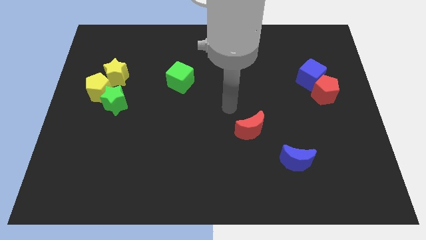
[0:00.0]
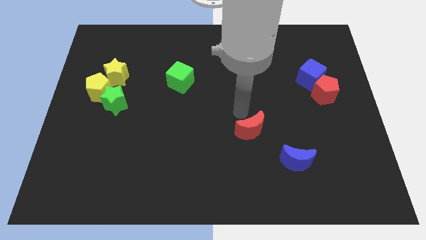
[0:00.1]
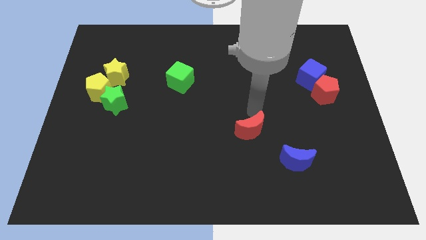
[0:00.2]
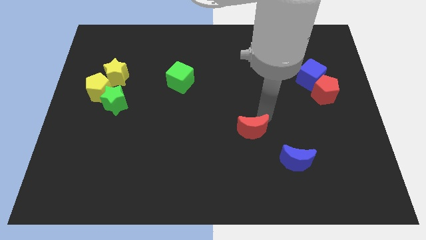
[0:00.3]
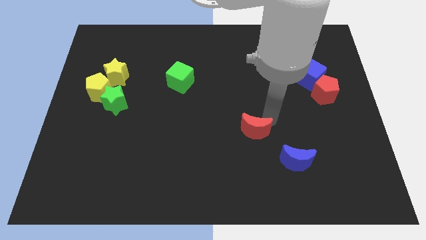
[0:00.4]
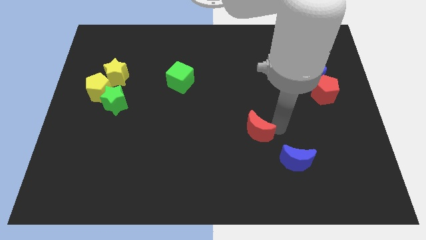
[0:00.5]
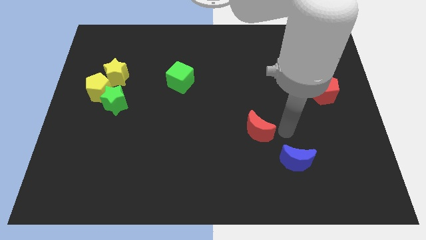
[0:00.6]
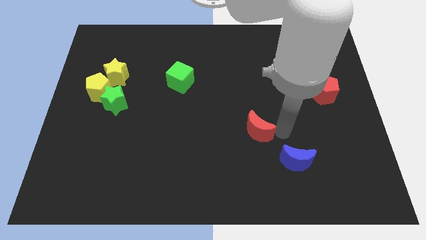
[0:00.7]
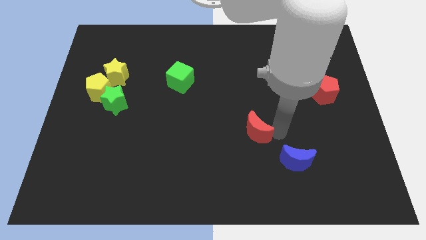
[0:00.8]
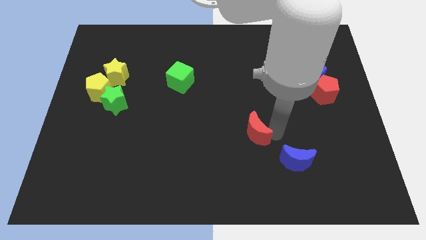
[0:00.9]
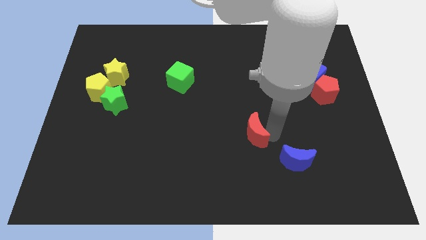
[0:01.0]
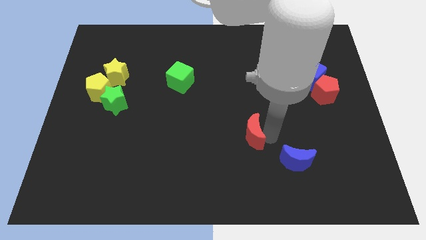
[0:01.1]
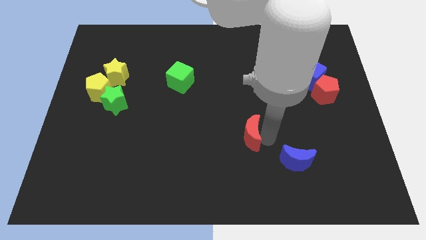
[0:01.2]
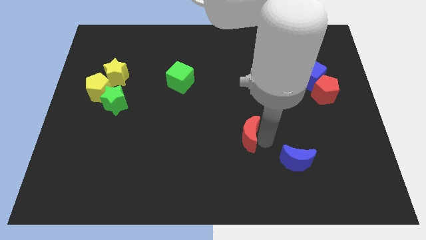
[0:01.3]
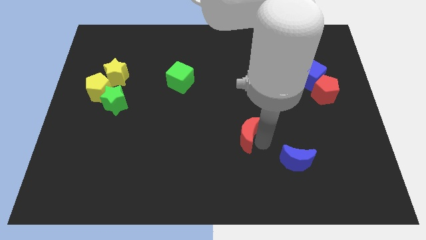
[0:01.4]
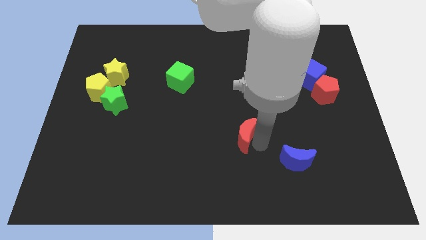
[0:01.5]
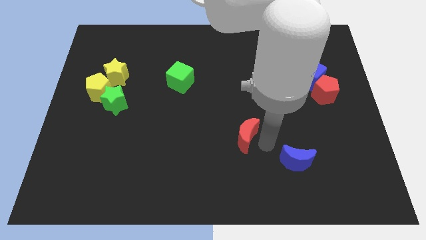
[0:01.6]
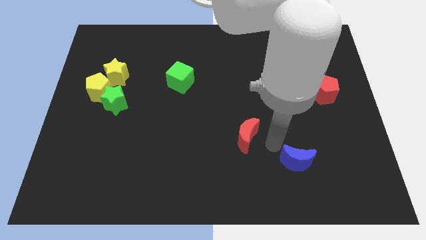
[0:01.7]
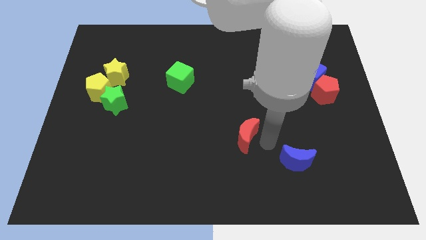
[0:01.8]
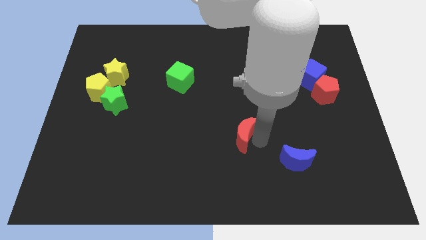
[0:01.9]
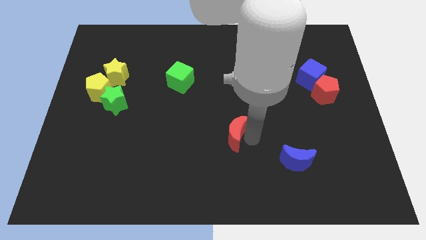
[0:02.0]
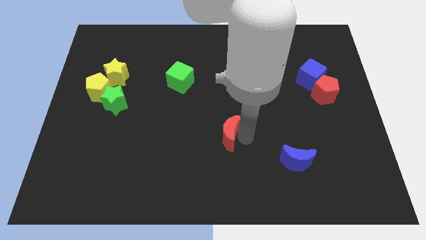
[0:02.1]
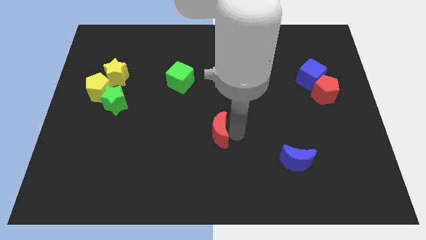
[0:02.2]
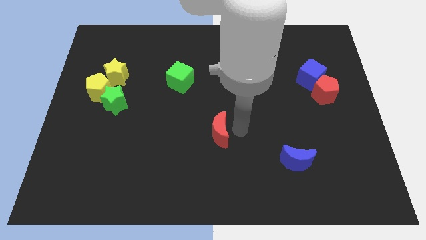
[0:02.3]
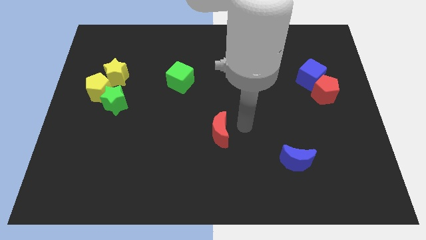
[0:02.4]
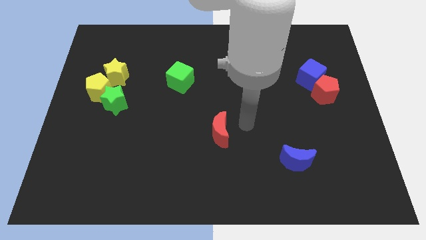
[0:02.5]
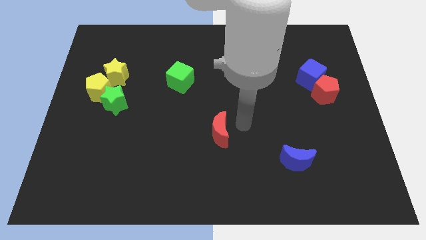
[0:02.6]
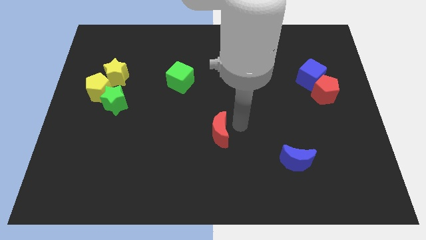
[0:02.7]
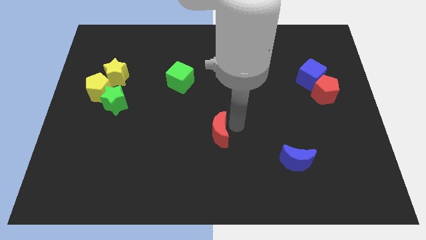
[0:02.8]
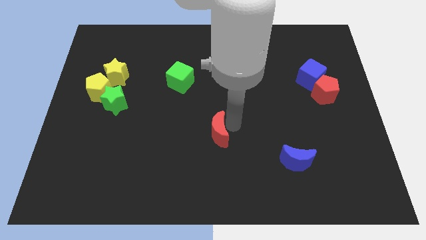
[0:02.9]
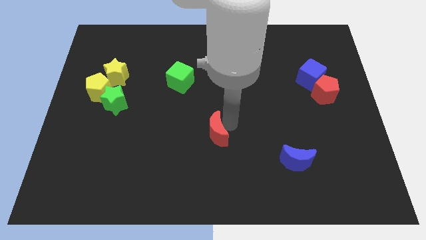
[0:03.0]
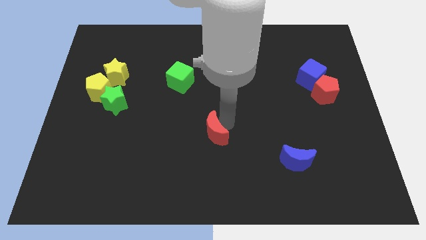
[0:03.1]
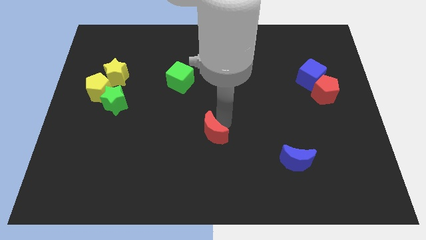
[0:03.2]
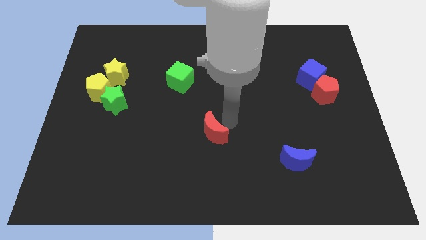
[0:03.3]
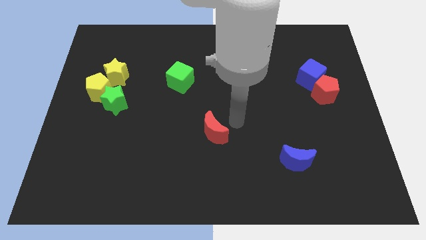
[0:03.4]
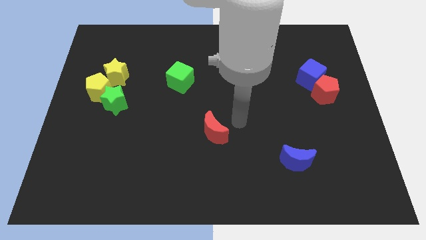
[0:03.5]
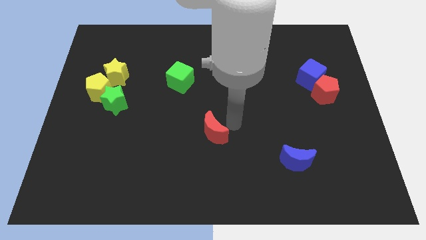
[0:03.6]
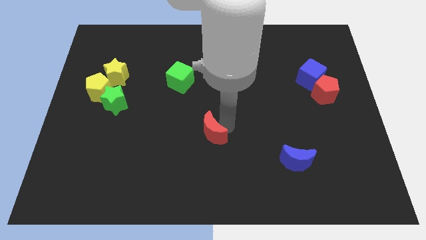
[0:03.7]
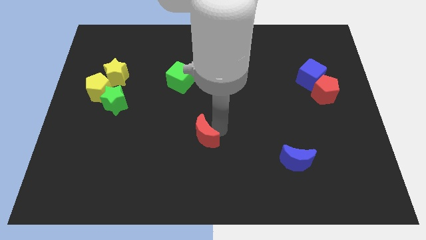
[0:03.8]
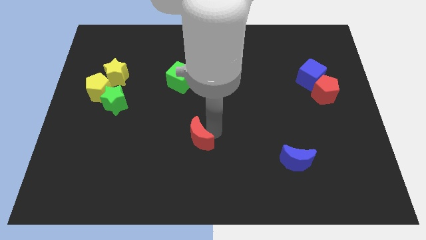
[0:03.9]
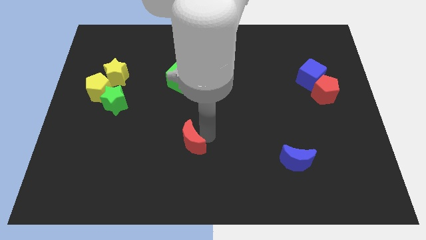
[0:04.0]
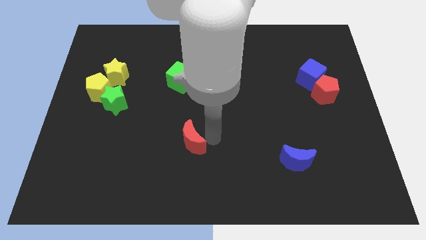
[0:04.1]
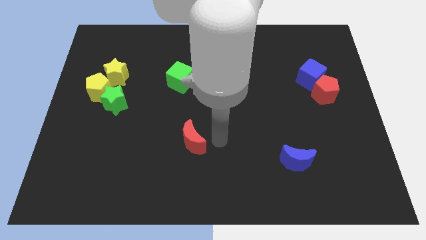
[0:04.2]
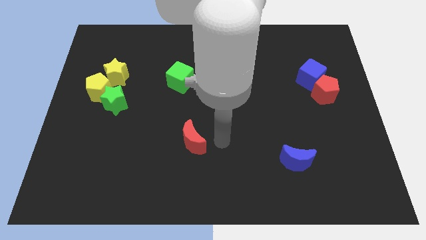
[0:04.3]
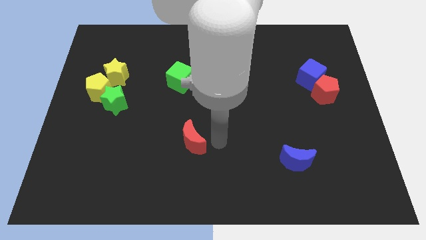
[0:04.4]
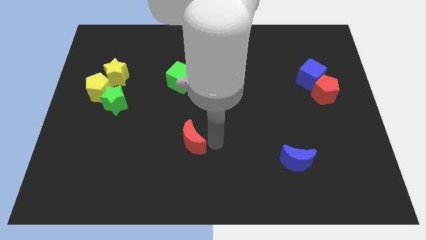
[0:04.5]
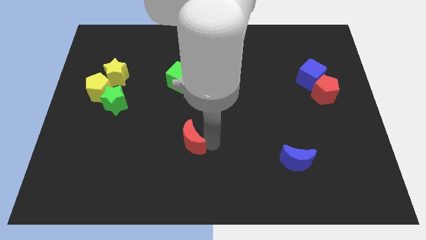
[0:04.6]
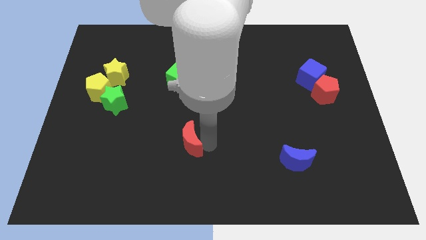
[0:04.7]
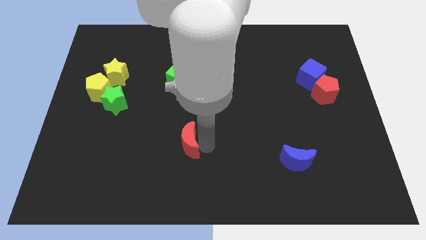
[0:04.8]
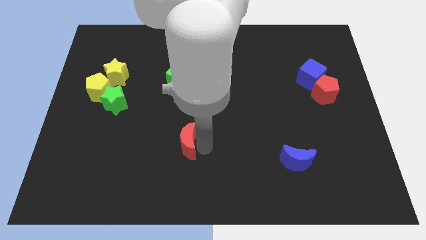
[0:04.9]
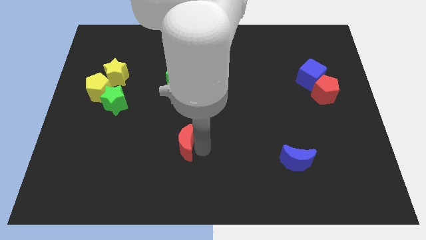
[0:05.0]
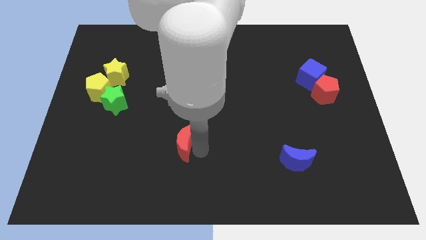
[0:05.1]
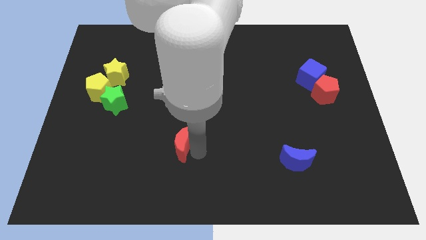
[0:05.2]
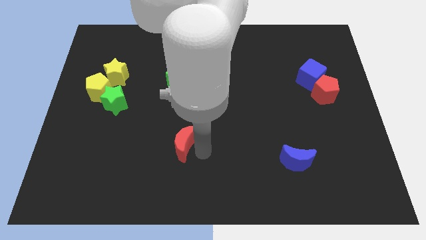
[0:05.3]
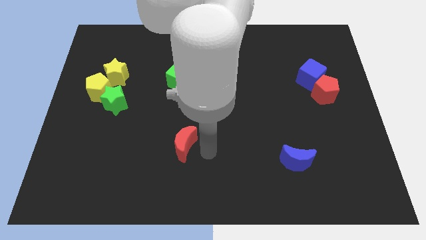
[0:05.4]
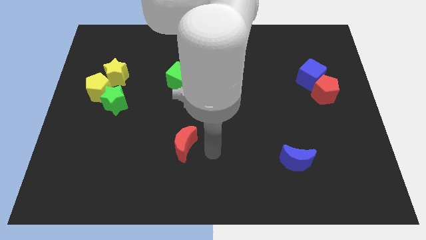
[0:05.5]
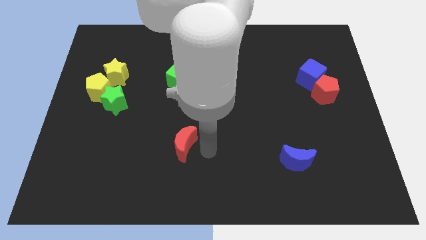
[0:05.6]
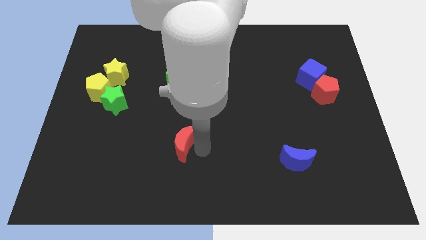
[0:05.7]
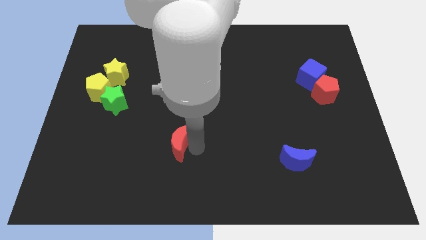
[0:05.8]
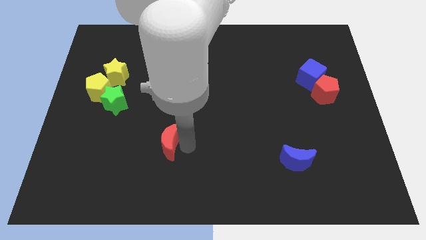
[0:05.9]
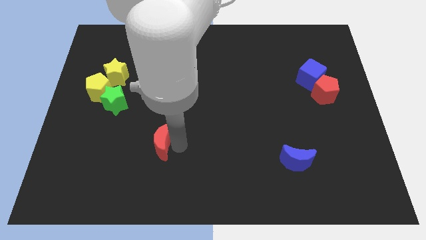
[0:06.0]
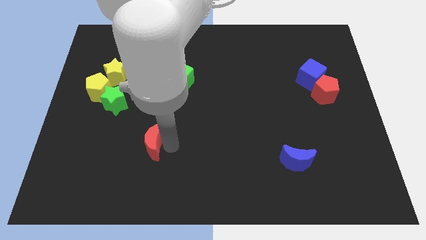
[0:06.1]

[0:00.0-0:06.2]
move the red moon to the left

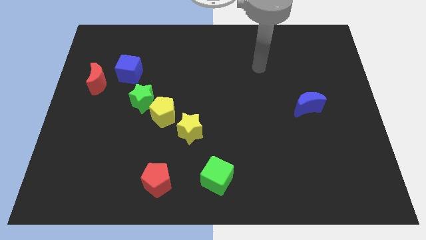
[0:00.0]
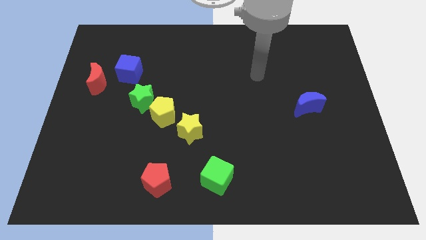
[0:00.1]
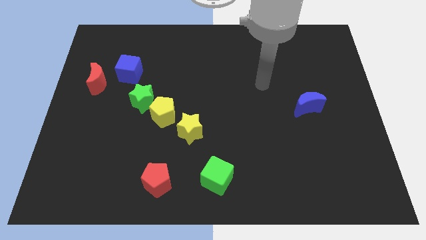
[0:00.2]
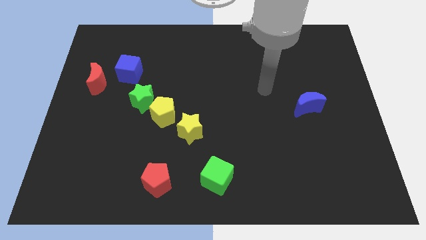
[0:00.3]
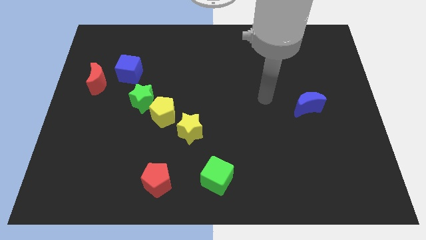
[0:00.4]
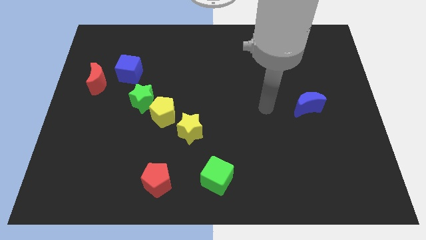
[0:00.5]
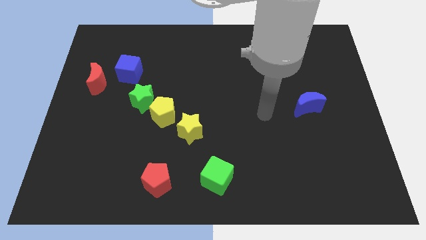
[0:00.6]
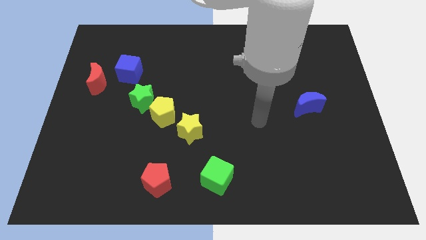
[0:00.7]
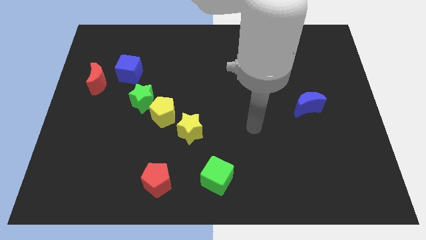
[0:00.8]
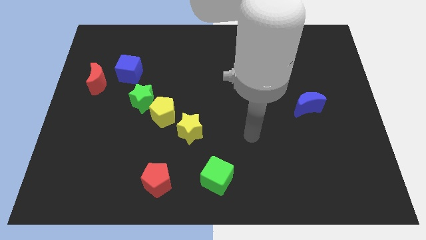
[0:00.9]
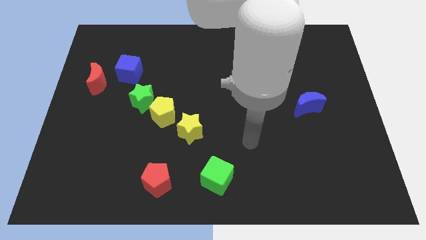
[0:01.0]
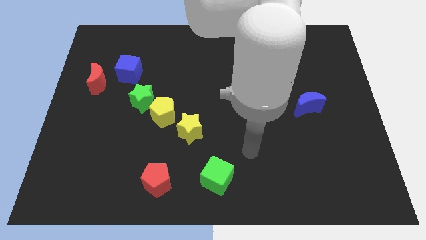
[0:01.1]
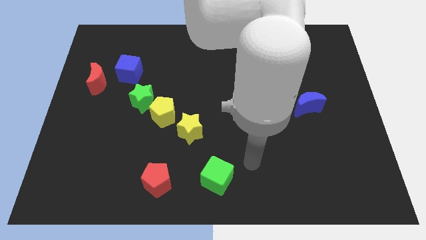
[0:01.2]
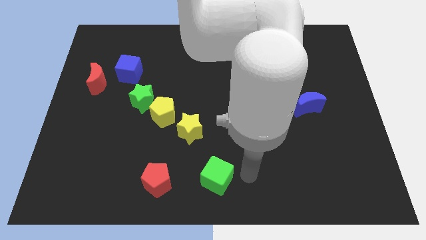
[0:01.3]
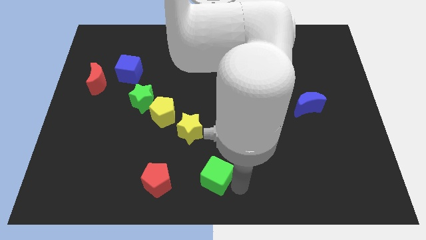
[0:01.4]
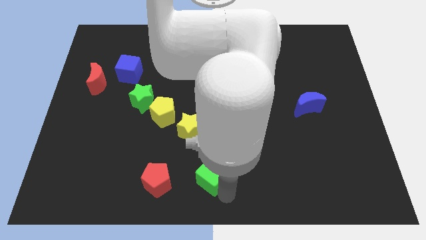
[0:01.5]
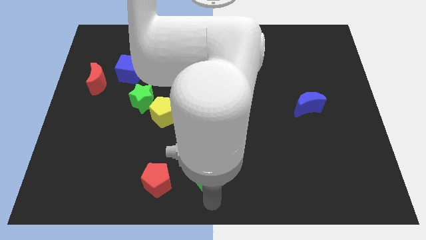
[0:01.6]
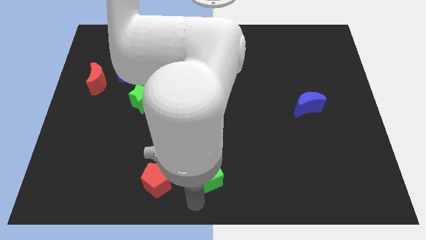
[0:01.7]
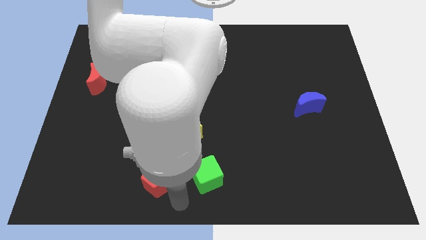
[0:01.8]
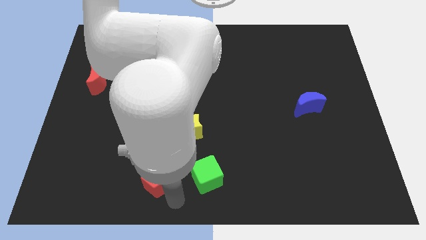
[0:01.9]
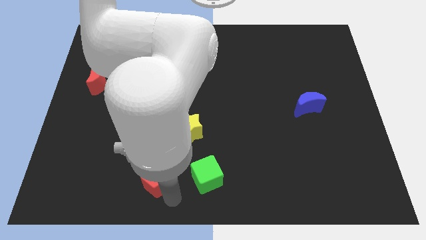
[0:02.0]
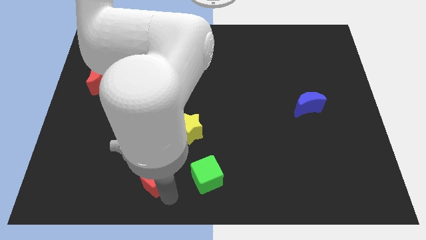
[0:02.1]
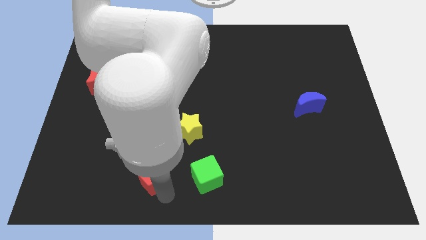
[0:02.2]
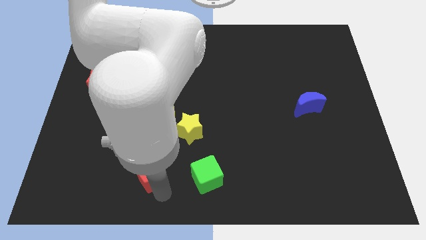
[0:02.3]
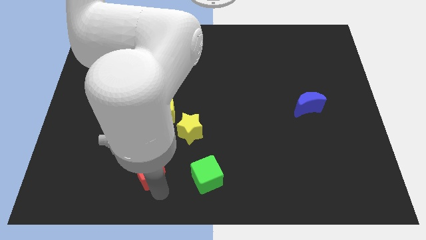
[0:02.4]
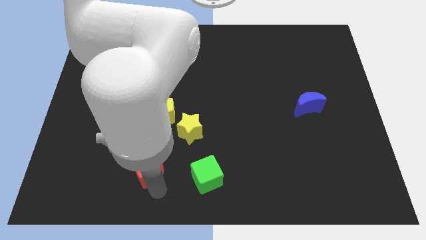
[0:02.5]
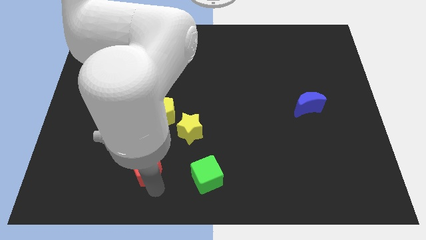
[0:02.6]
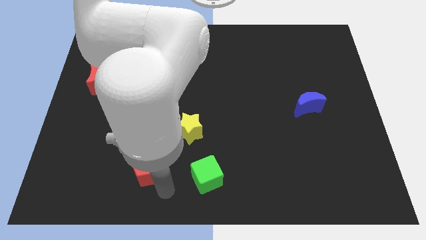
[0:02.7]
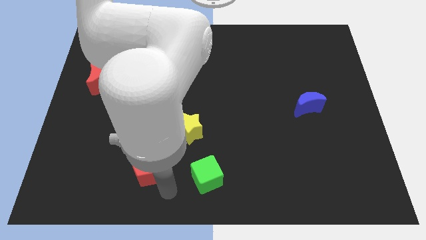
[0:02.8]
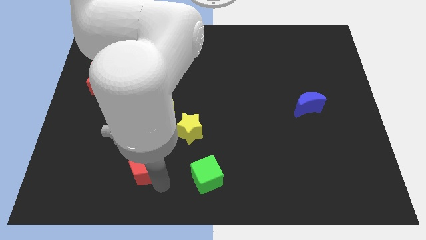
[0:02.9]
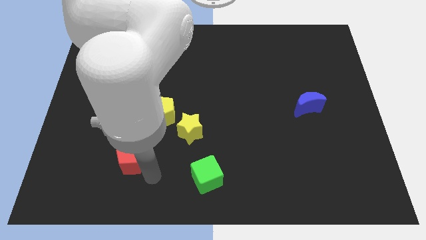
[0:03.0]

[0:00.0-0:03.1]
slightly move the red pentagon diagonally up and to the left
